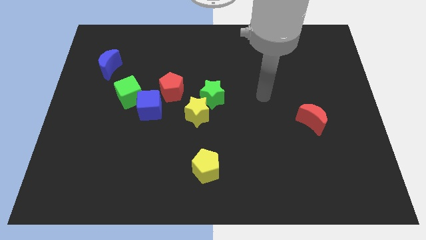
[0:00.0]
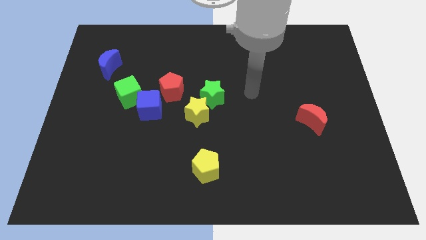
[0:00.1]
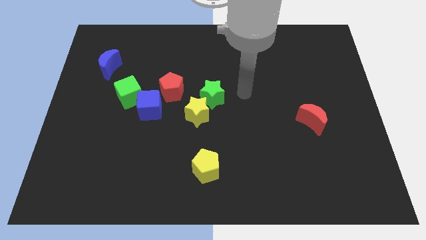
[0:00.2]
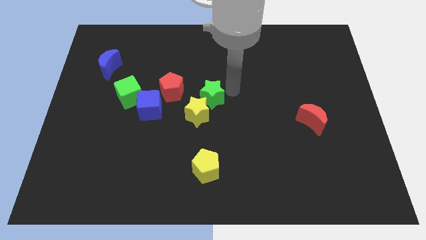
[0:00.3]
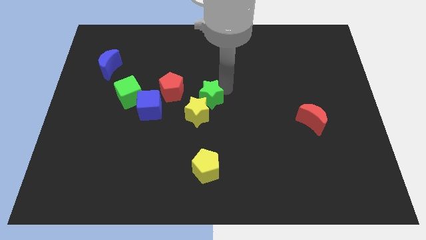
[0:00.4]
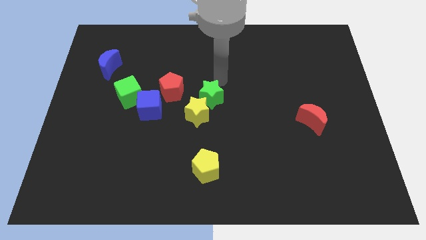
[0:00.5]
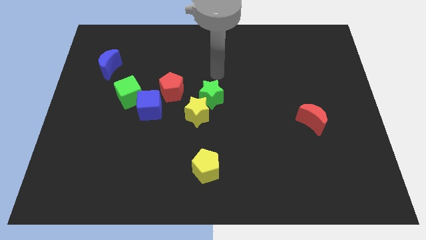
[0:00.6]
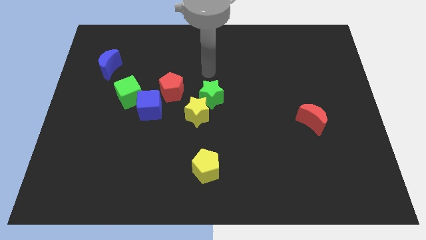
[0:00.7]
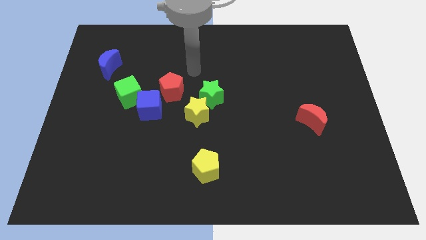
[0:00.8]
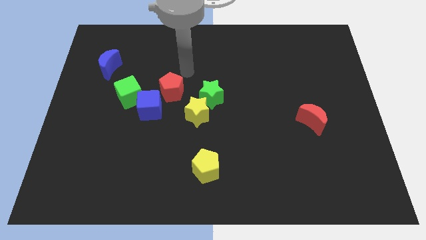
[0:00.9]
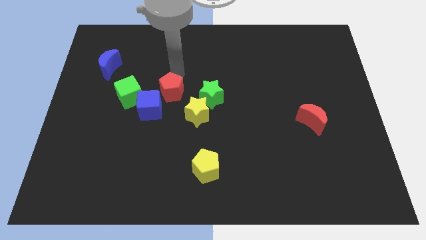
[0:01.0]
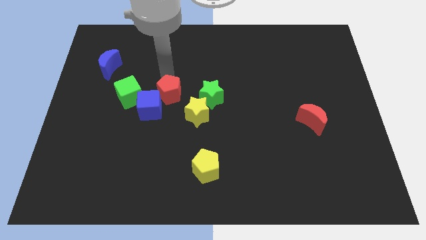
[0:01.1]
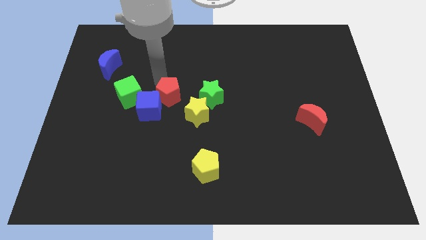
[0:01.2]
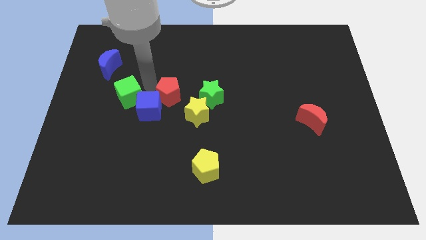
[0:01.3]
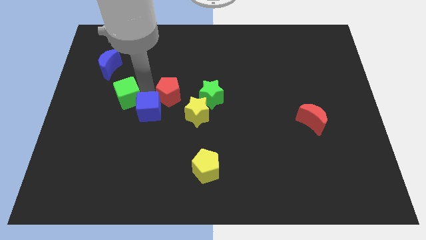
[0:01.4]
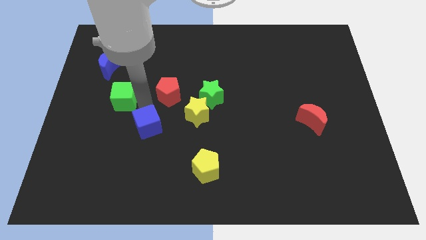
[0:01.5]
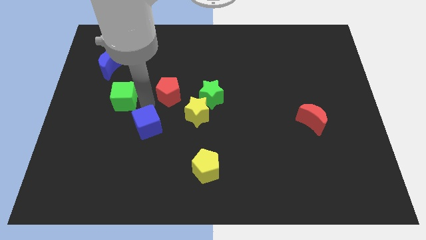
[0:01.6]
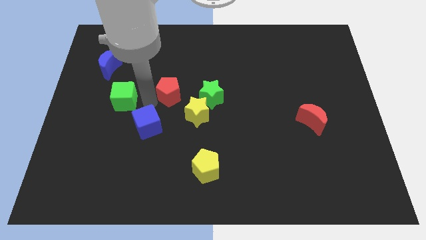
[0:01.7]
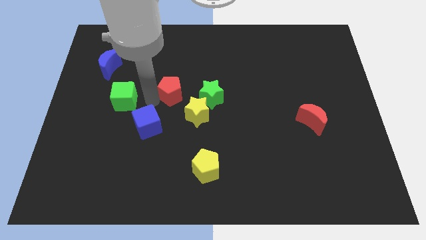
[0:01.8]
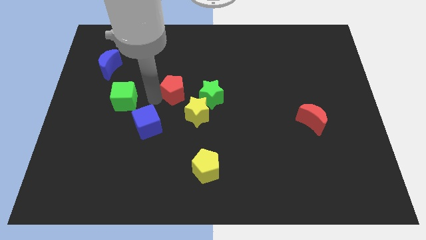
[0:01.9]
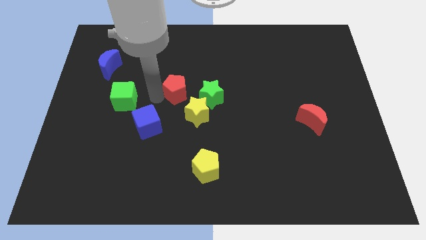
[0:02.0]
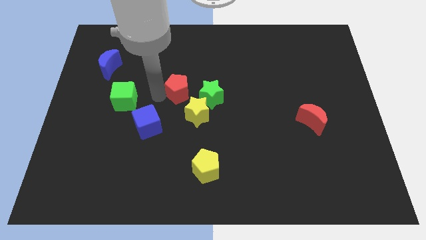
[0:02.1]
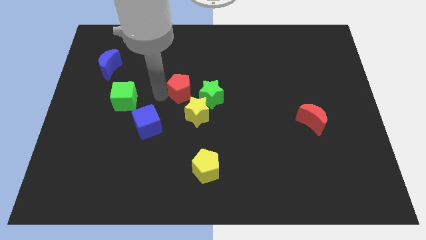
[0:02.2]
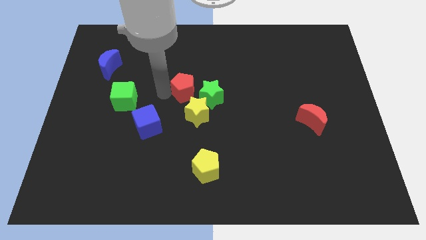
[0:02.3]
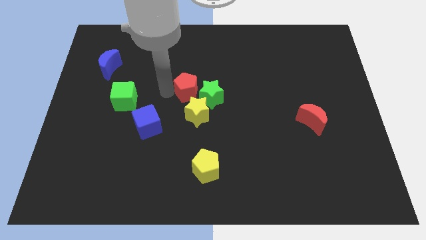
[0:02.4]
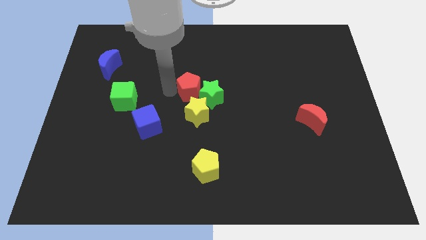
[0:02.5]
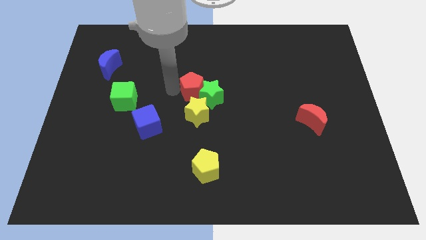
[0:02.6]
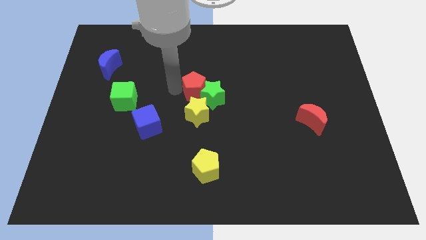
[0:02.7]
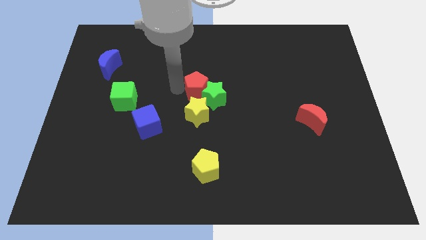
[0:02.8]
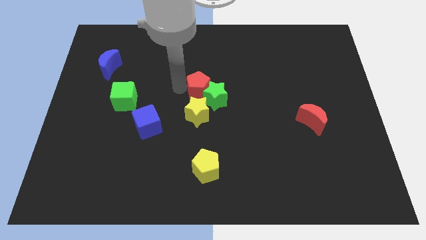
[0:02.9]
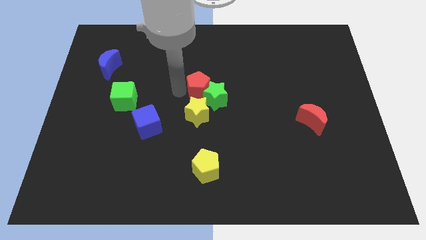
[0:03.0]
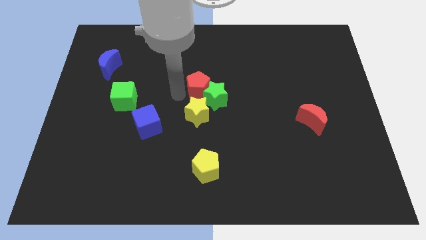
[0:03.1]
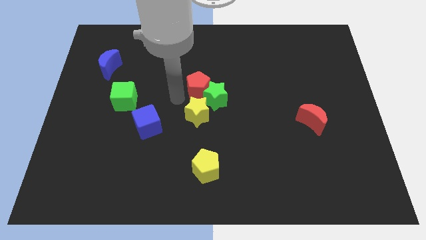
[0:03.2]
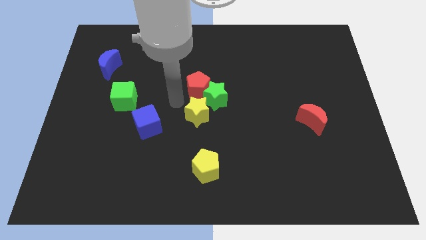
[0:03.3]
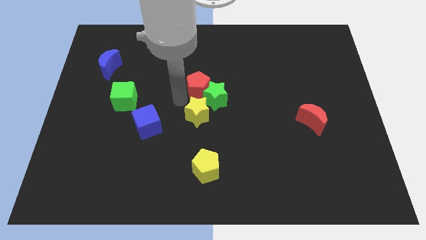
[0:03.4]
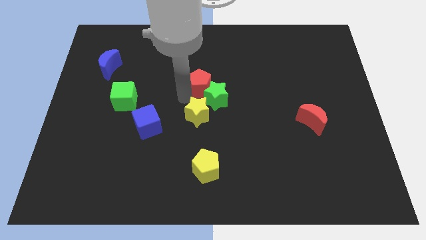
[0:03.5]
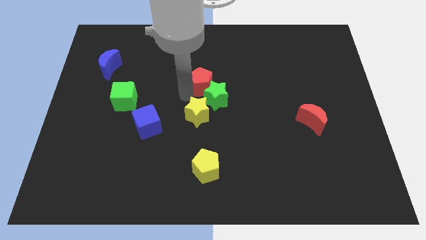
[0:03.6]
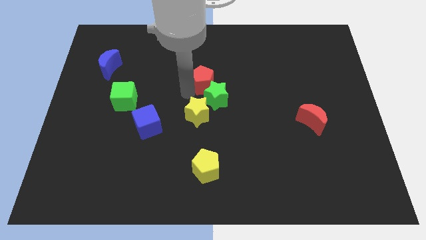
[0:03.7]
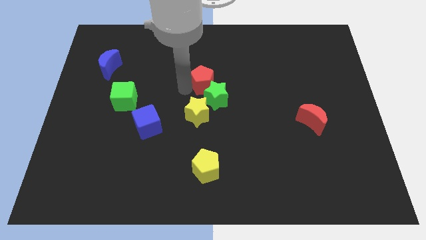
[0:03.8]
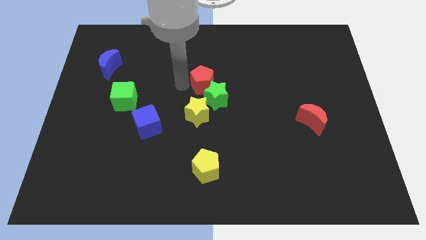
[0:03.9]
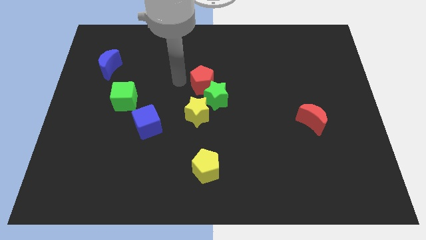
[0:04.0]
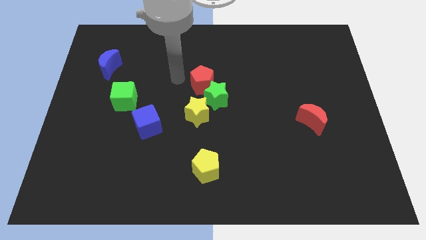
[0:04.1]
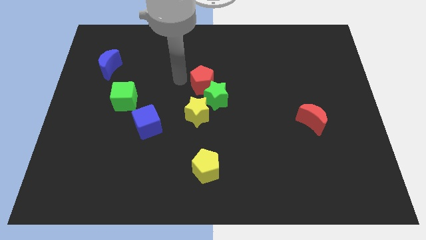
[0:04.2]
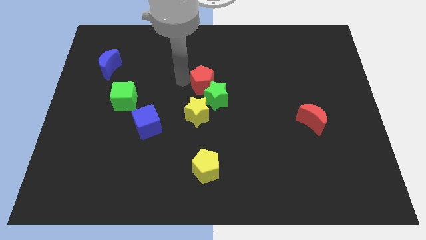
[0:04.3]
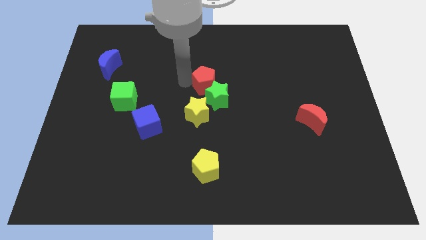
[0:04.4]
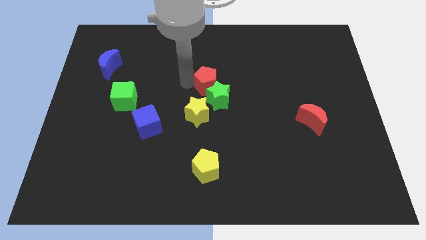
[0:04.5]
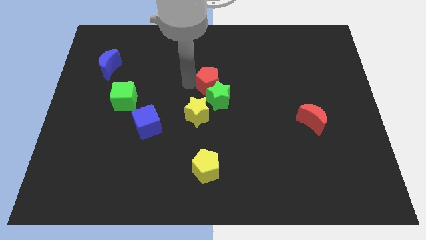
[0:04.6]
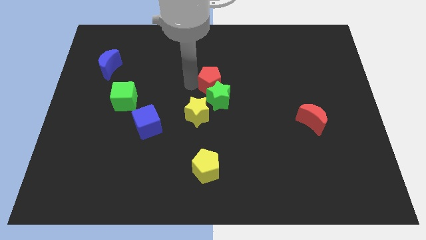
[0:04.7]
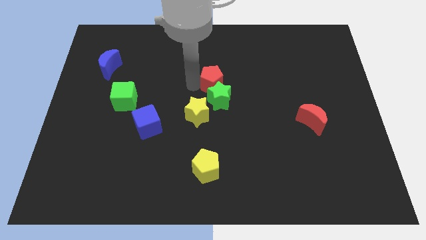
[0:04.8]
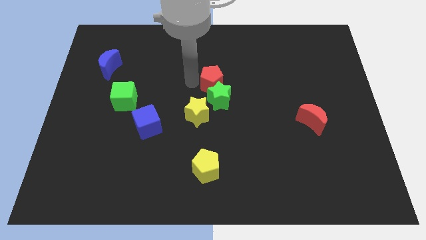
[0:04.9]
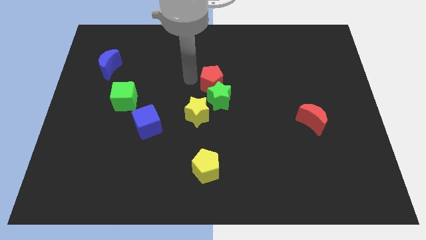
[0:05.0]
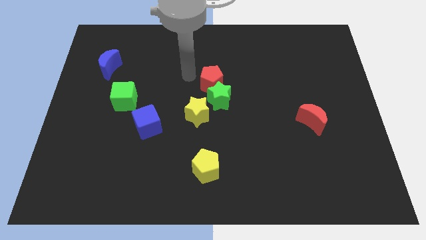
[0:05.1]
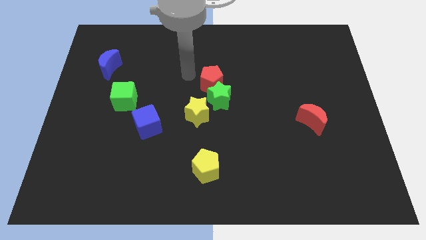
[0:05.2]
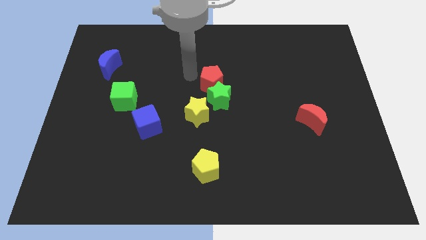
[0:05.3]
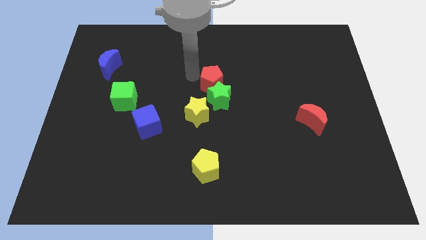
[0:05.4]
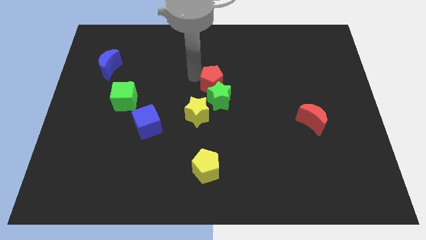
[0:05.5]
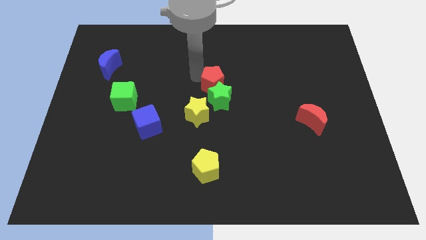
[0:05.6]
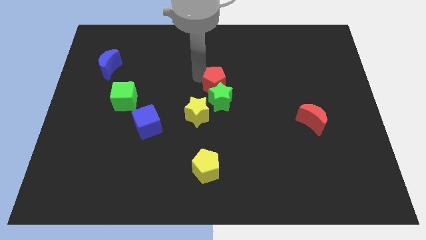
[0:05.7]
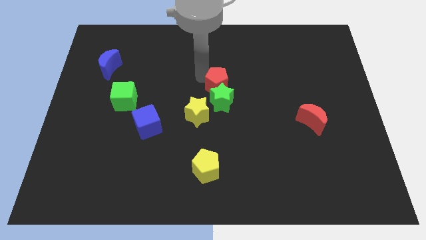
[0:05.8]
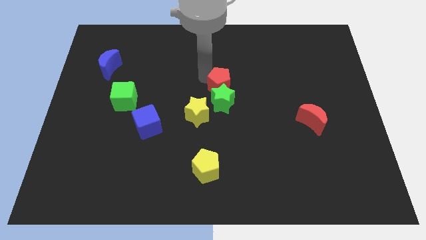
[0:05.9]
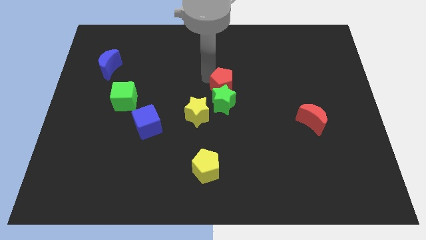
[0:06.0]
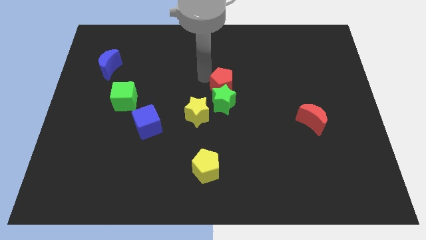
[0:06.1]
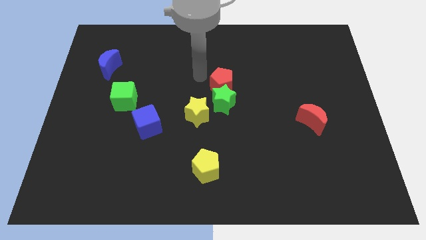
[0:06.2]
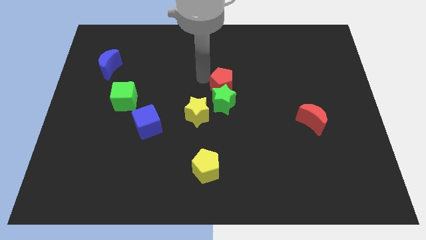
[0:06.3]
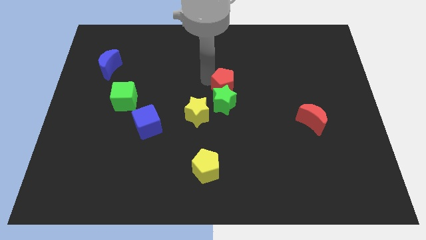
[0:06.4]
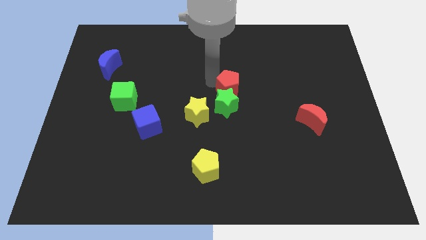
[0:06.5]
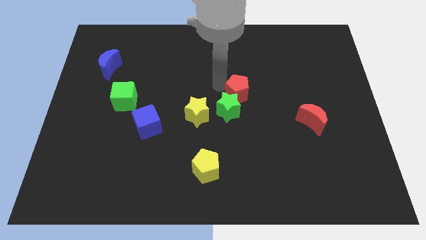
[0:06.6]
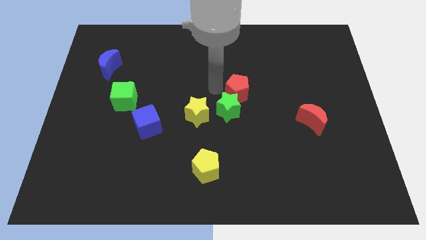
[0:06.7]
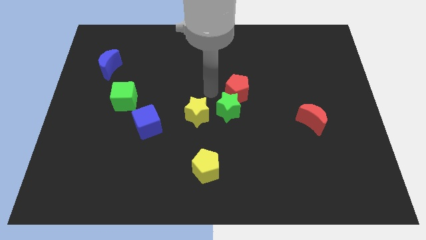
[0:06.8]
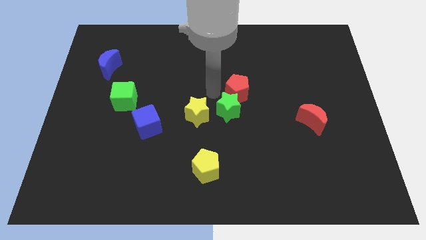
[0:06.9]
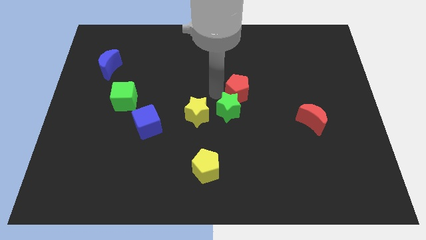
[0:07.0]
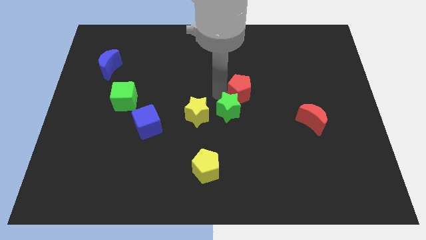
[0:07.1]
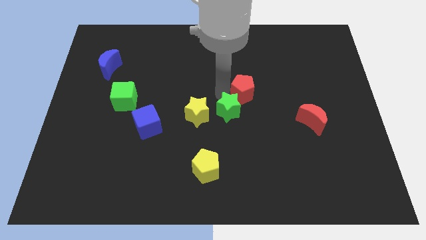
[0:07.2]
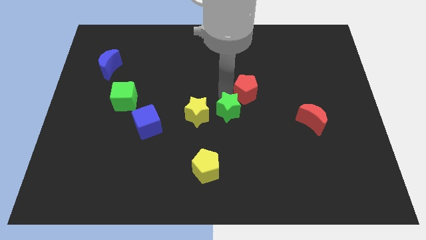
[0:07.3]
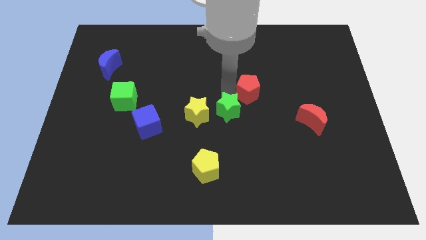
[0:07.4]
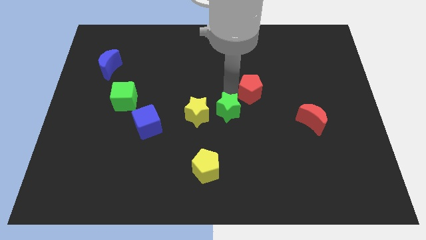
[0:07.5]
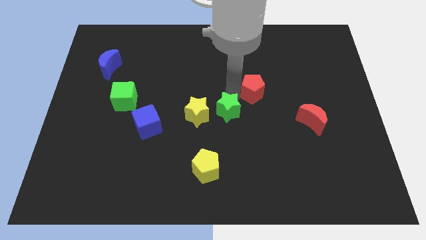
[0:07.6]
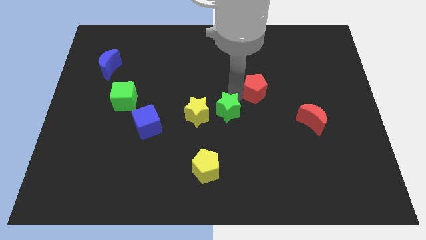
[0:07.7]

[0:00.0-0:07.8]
move the red pentagon right

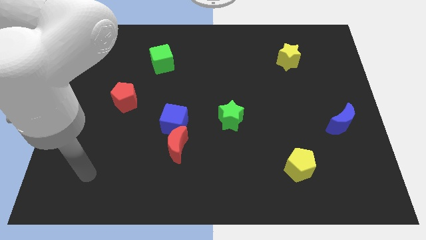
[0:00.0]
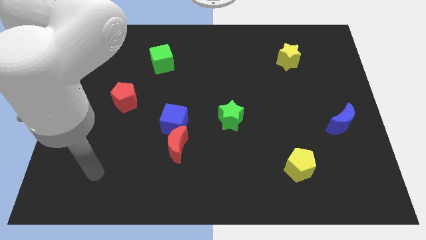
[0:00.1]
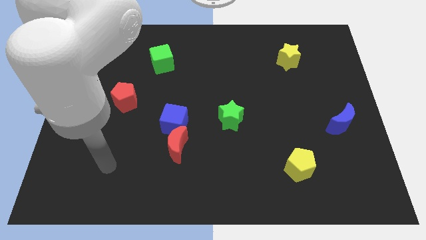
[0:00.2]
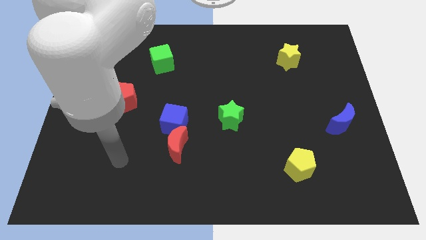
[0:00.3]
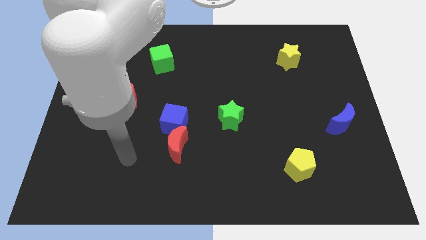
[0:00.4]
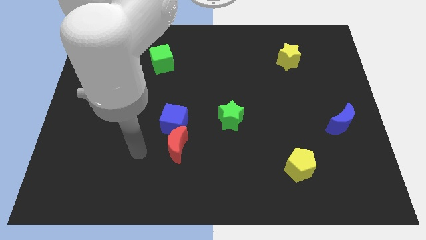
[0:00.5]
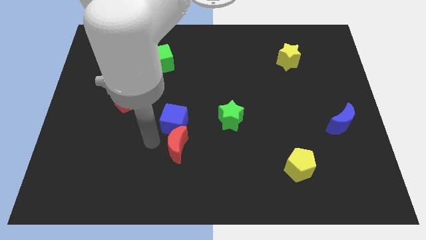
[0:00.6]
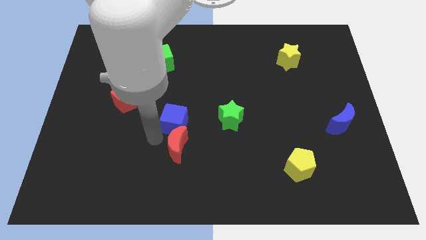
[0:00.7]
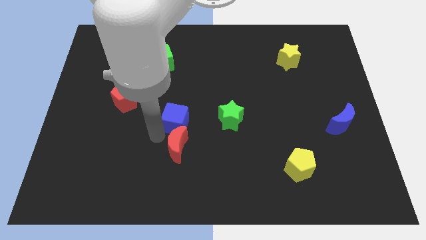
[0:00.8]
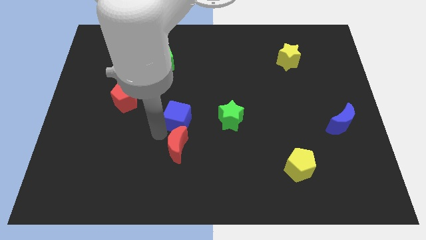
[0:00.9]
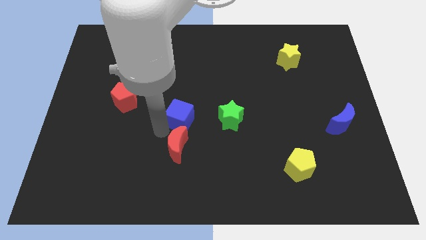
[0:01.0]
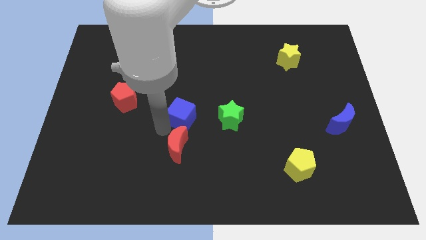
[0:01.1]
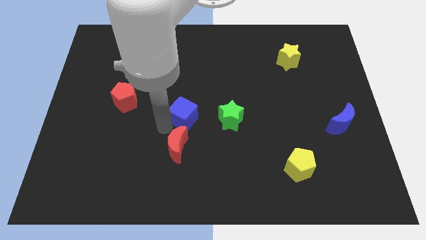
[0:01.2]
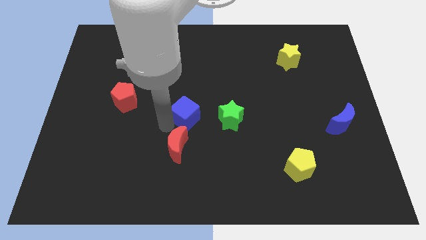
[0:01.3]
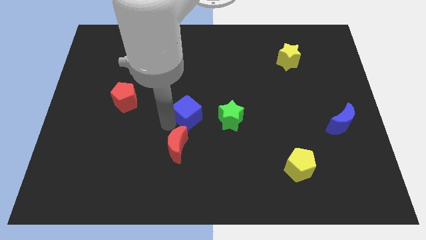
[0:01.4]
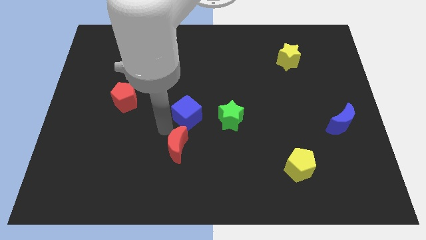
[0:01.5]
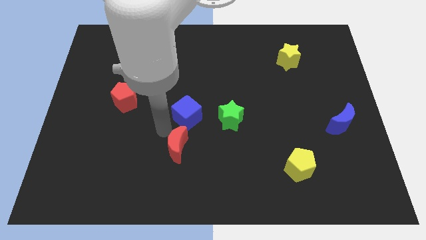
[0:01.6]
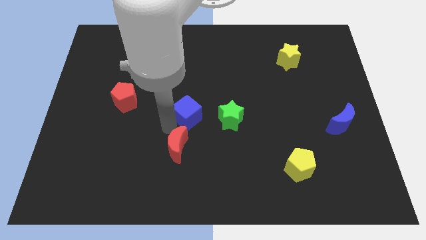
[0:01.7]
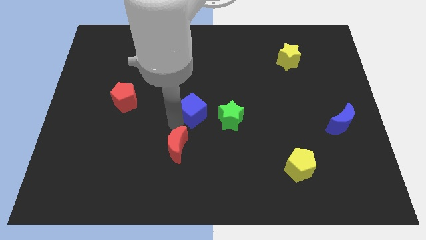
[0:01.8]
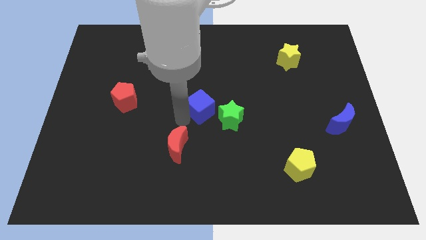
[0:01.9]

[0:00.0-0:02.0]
move the blue cube diagonally upwards and to the right a little bit
